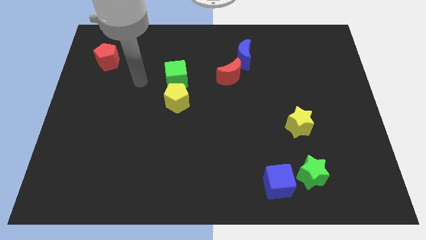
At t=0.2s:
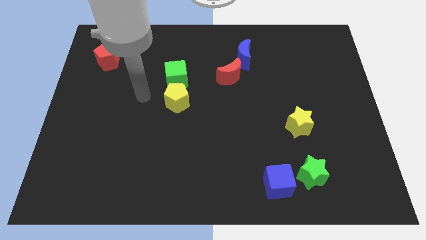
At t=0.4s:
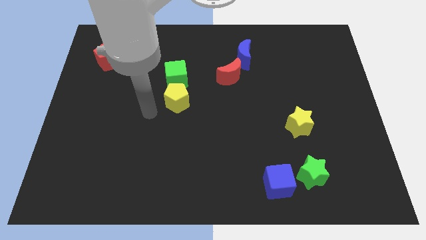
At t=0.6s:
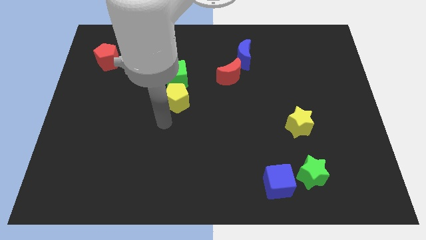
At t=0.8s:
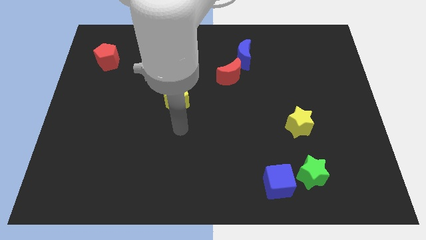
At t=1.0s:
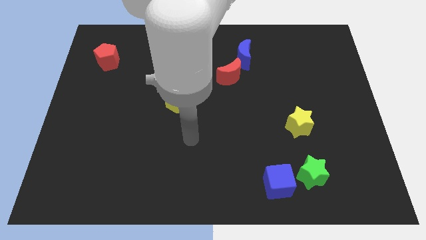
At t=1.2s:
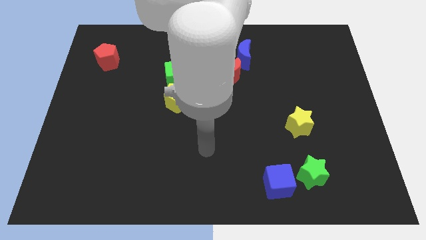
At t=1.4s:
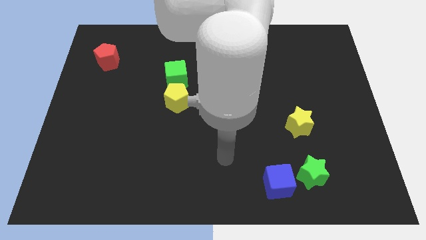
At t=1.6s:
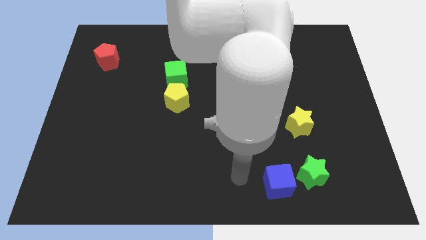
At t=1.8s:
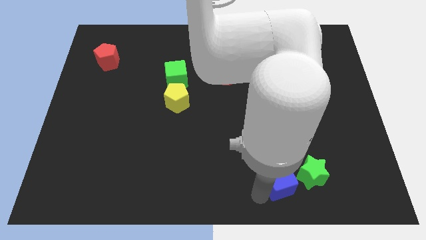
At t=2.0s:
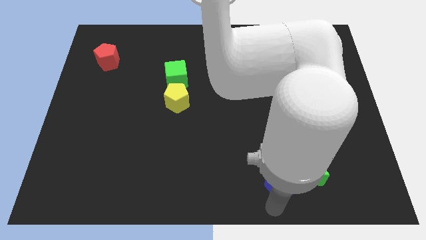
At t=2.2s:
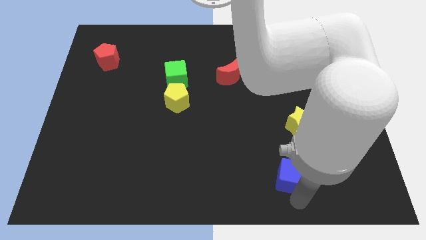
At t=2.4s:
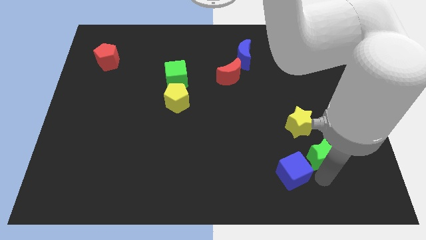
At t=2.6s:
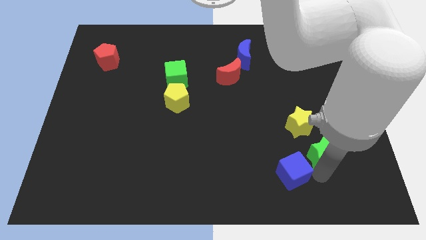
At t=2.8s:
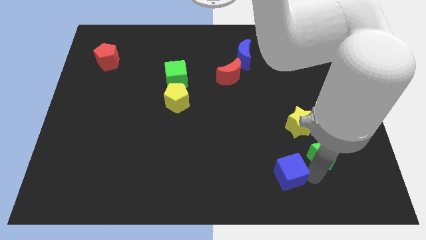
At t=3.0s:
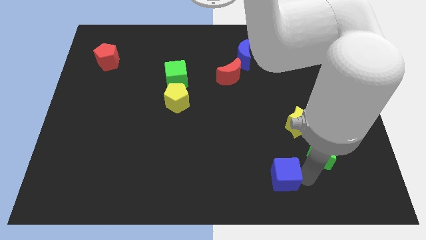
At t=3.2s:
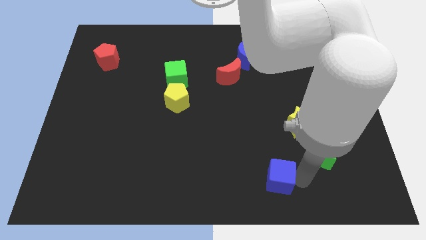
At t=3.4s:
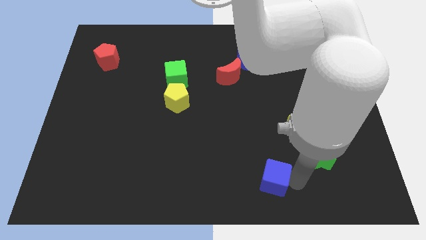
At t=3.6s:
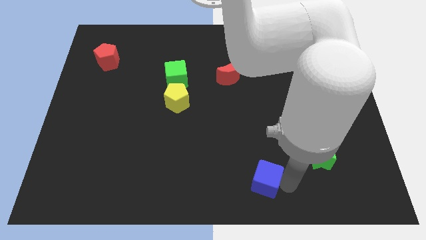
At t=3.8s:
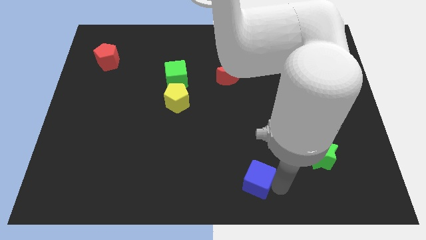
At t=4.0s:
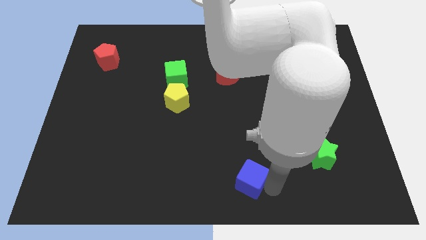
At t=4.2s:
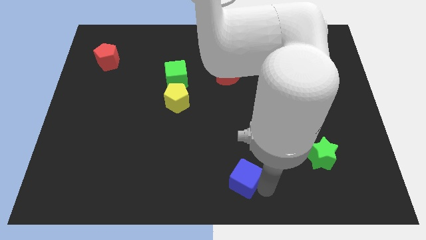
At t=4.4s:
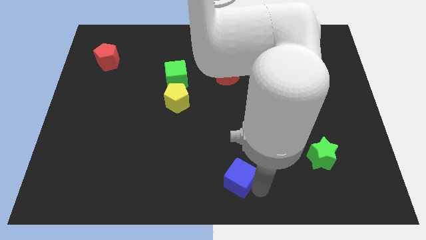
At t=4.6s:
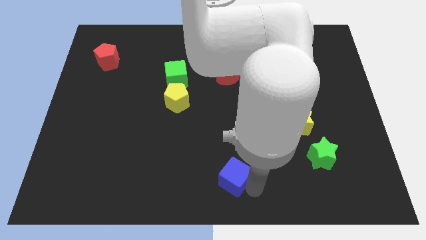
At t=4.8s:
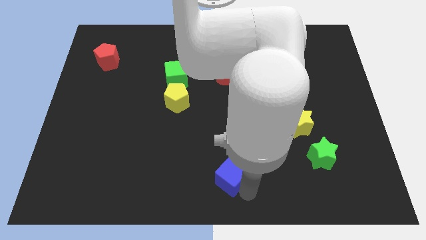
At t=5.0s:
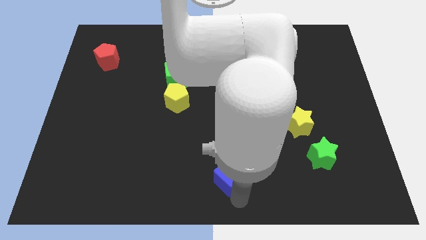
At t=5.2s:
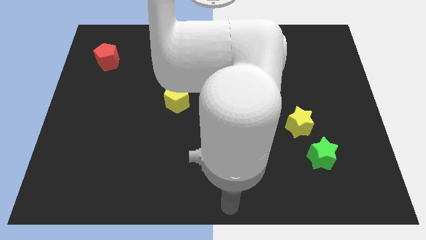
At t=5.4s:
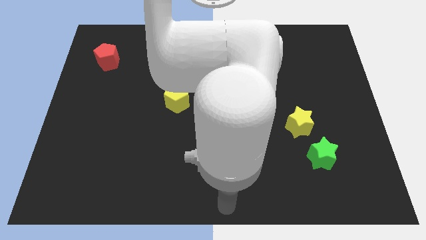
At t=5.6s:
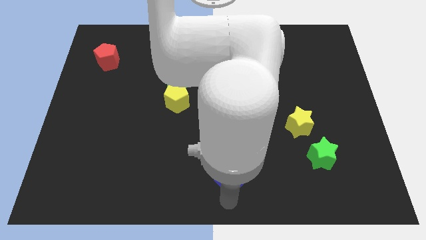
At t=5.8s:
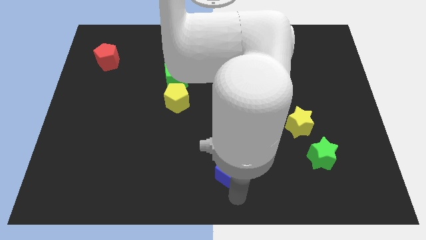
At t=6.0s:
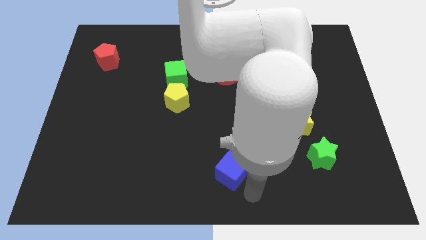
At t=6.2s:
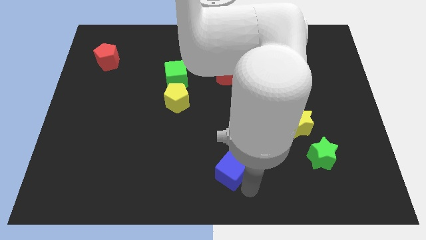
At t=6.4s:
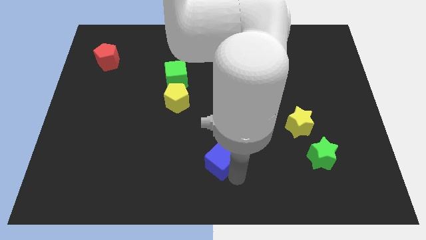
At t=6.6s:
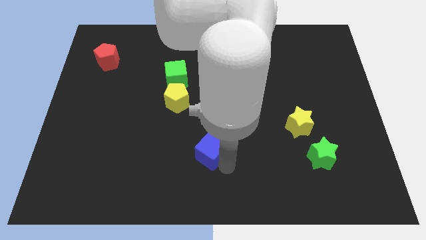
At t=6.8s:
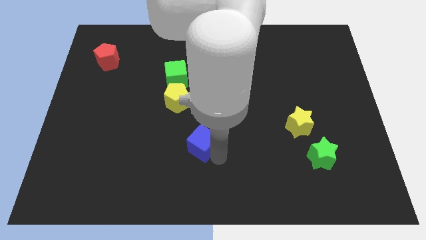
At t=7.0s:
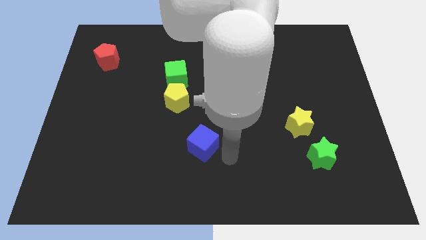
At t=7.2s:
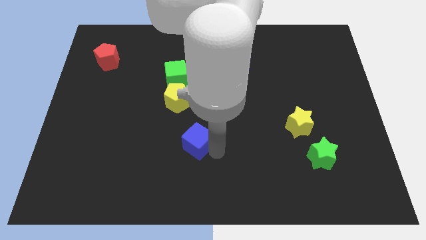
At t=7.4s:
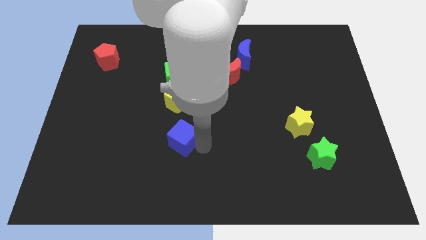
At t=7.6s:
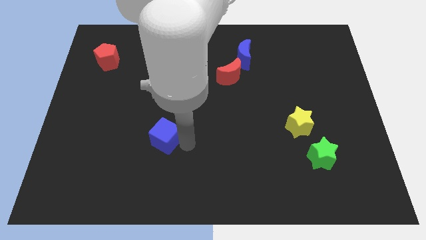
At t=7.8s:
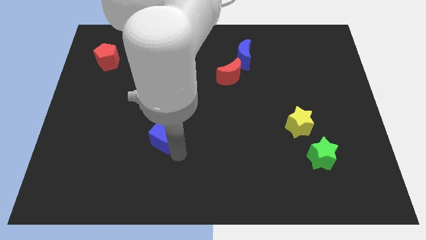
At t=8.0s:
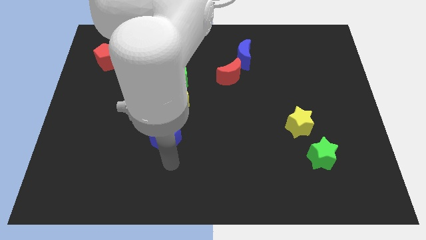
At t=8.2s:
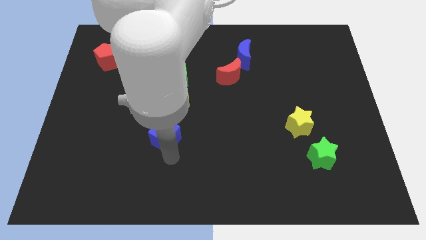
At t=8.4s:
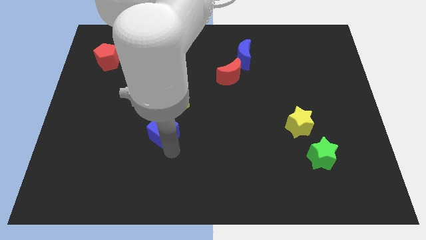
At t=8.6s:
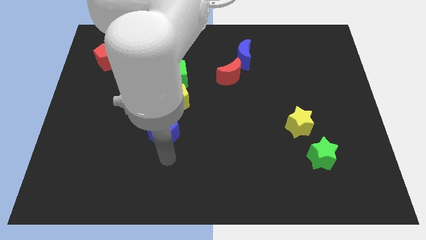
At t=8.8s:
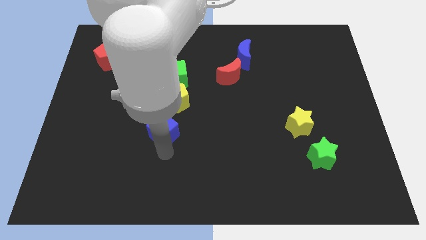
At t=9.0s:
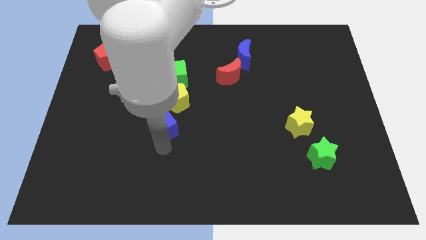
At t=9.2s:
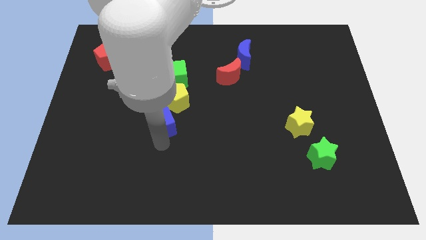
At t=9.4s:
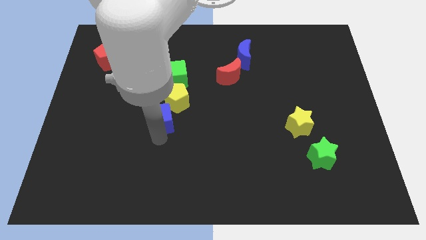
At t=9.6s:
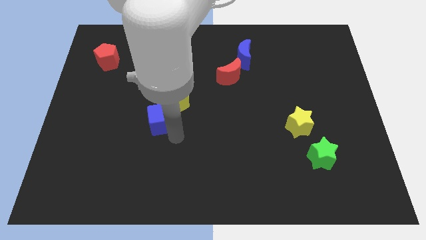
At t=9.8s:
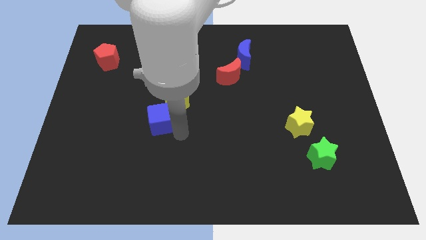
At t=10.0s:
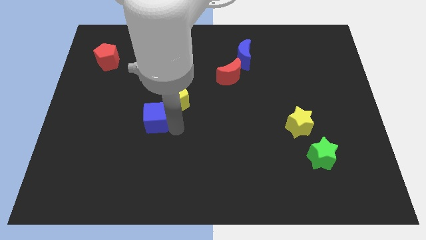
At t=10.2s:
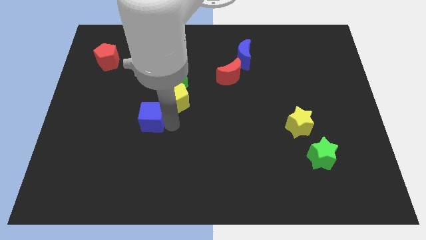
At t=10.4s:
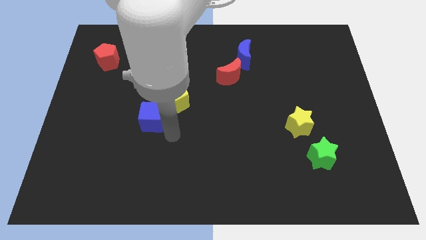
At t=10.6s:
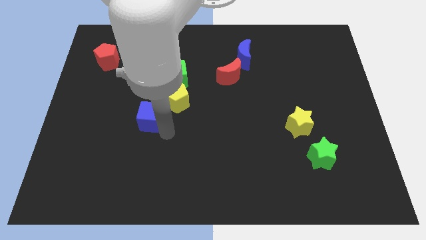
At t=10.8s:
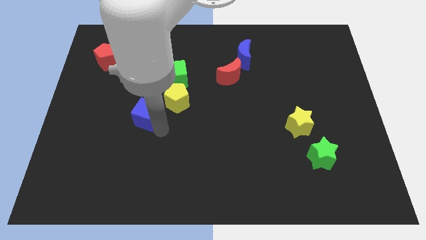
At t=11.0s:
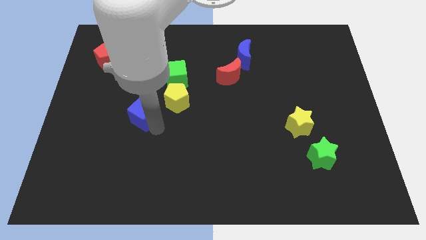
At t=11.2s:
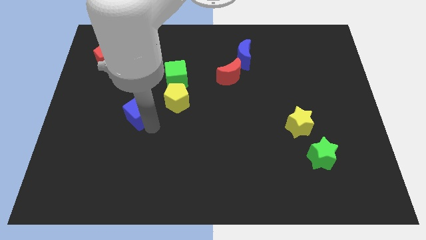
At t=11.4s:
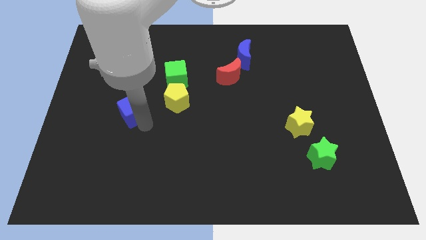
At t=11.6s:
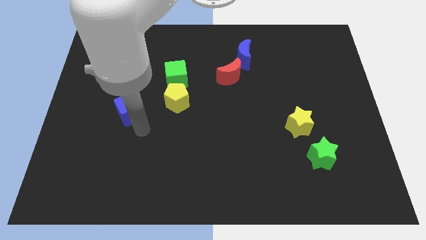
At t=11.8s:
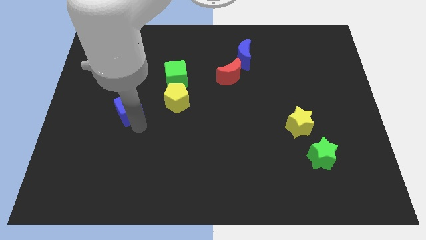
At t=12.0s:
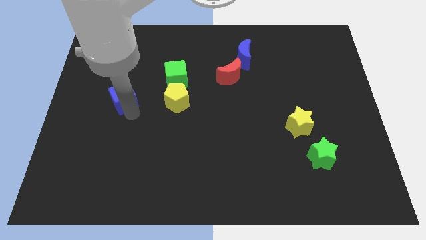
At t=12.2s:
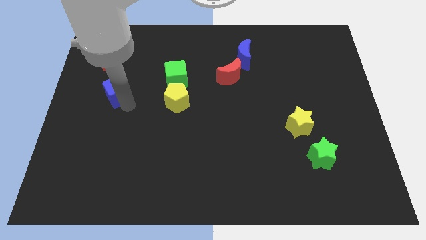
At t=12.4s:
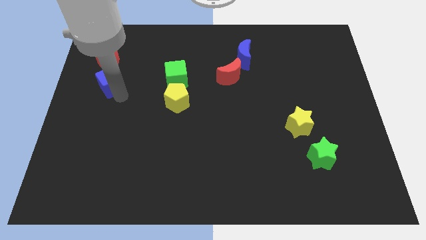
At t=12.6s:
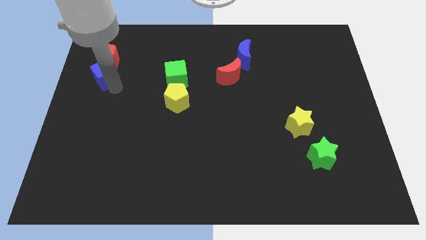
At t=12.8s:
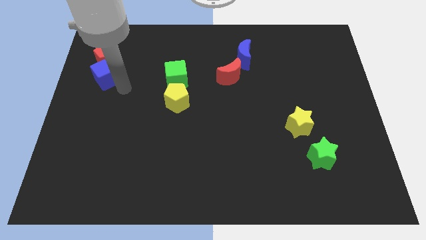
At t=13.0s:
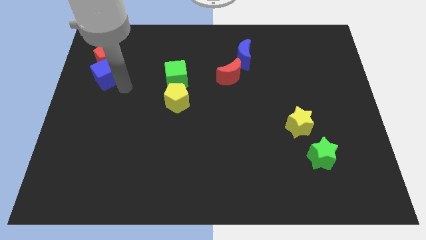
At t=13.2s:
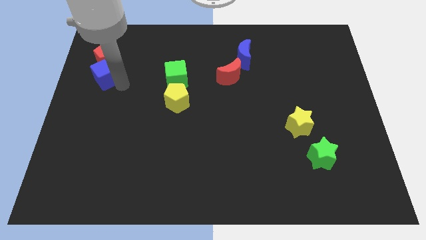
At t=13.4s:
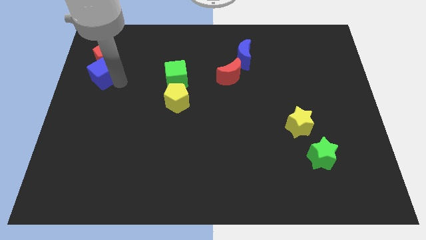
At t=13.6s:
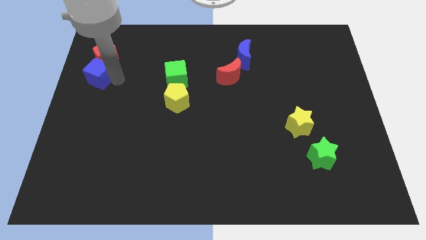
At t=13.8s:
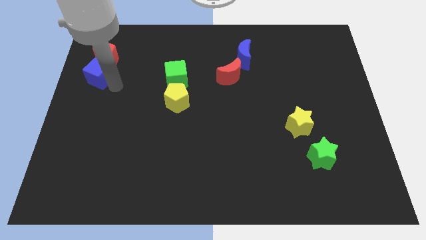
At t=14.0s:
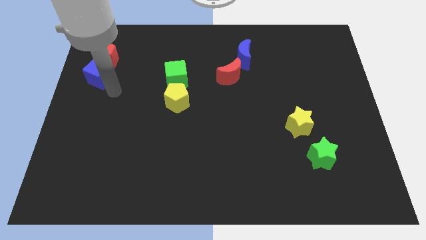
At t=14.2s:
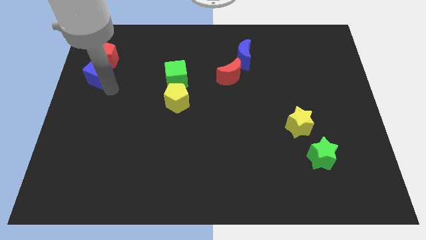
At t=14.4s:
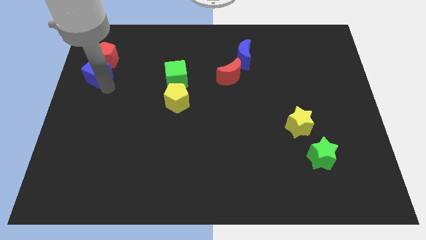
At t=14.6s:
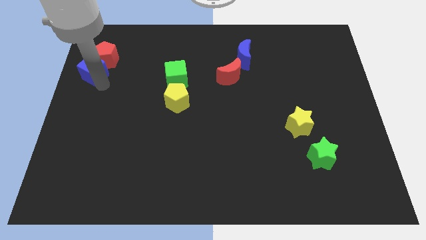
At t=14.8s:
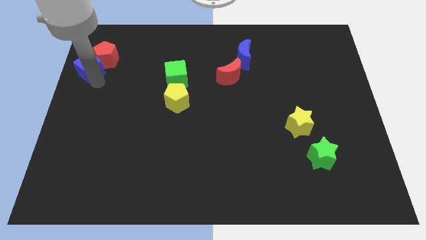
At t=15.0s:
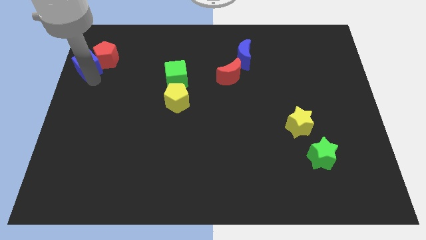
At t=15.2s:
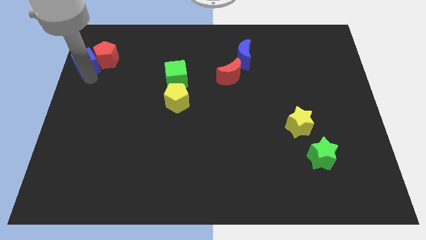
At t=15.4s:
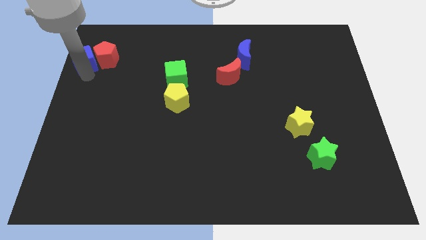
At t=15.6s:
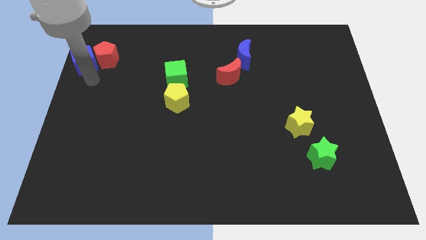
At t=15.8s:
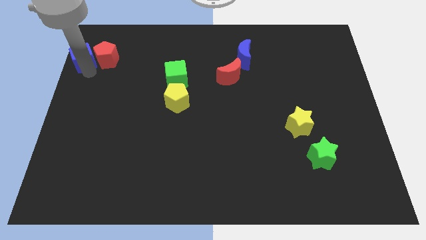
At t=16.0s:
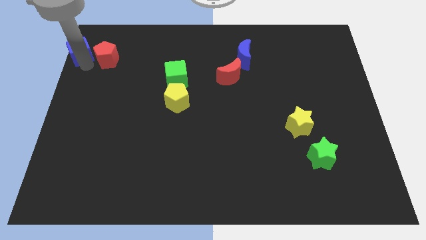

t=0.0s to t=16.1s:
move the blue cube to the top left of the board
